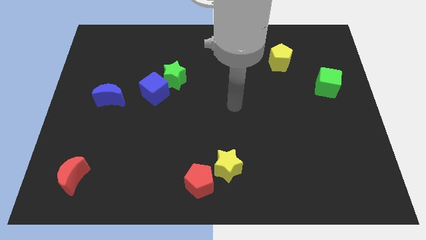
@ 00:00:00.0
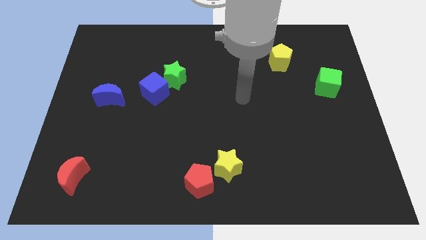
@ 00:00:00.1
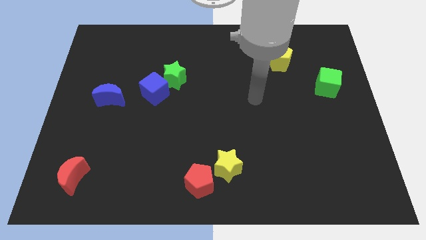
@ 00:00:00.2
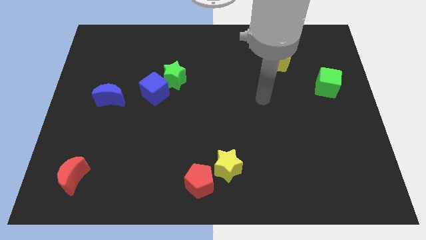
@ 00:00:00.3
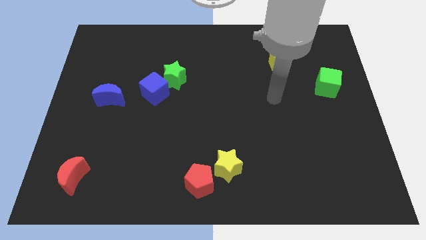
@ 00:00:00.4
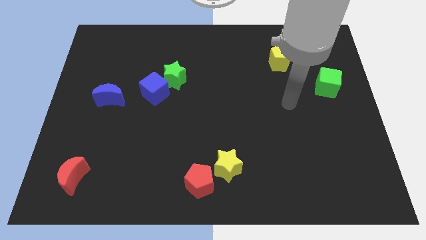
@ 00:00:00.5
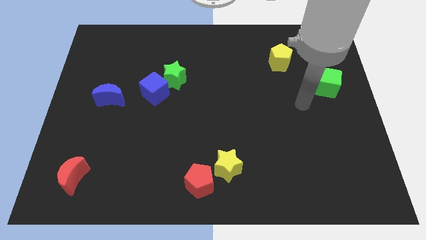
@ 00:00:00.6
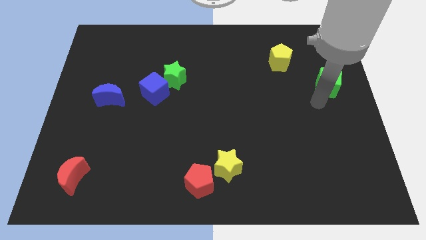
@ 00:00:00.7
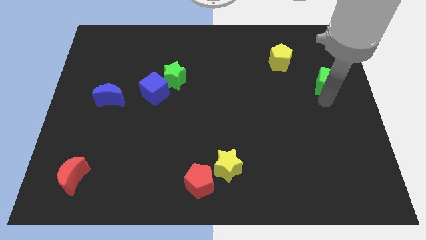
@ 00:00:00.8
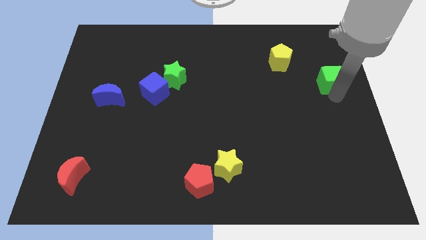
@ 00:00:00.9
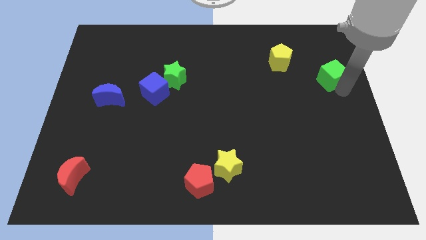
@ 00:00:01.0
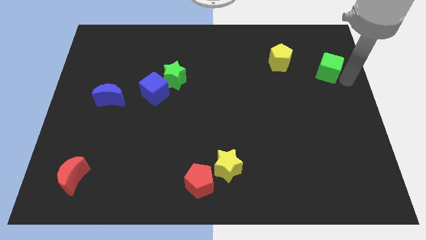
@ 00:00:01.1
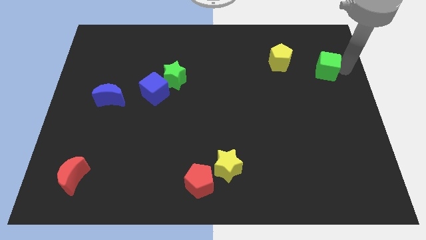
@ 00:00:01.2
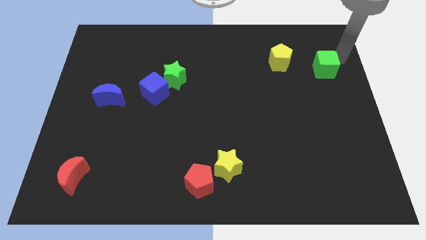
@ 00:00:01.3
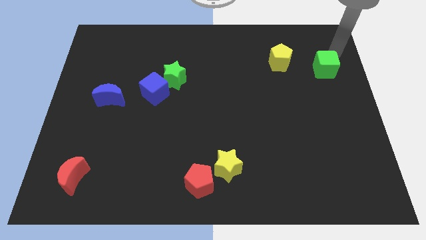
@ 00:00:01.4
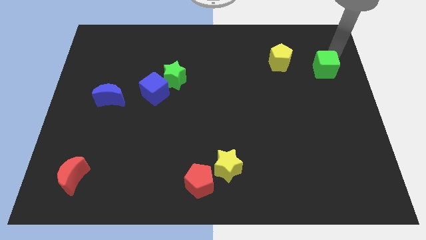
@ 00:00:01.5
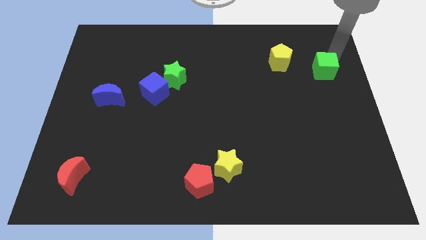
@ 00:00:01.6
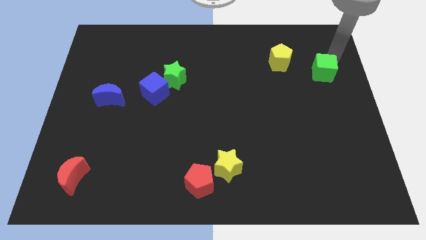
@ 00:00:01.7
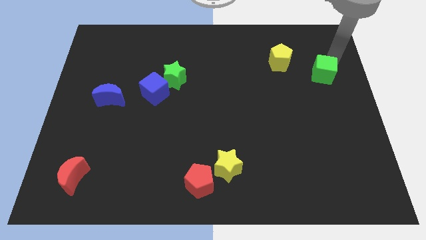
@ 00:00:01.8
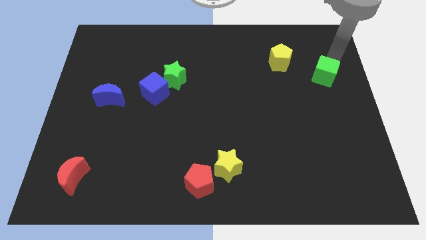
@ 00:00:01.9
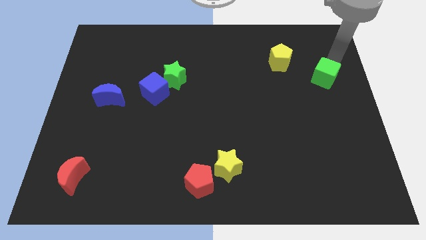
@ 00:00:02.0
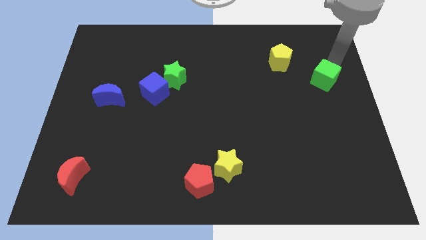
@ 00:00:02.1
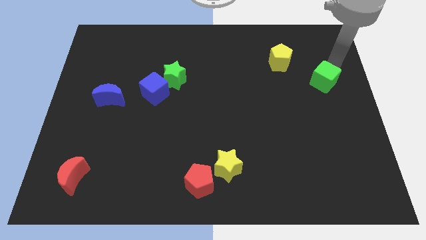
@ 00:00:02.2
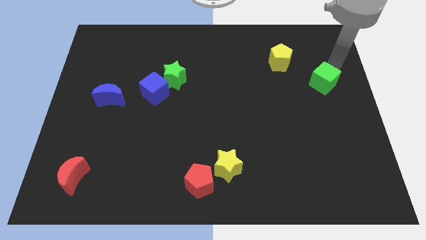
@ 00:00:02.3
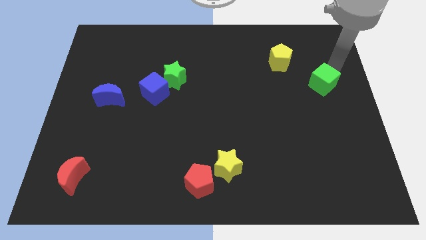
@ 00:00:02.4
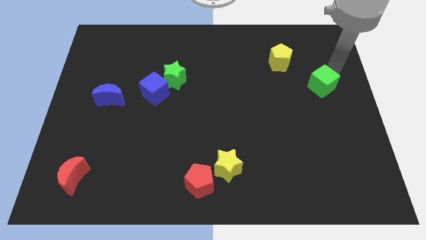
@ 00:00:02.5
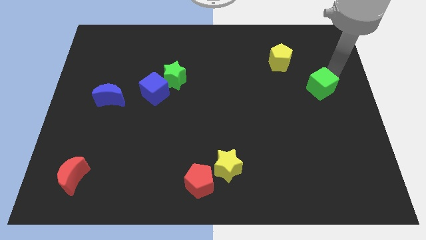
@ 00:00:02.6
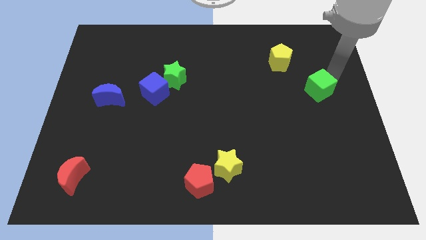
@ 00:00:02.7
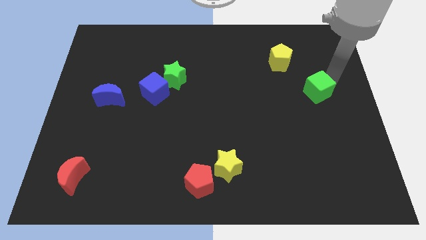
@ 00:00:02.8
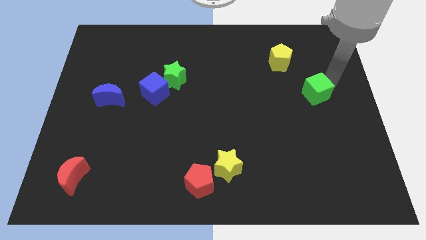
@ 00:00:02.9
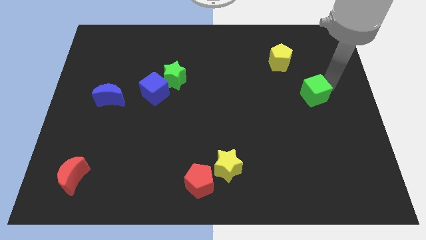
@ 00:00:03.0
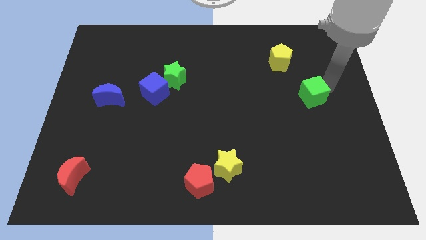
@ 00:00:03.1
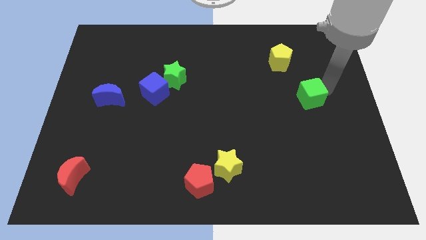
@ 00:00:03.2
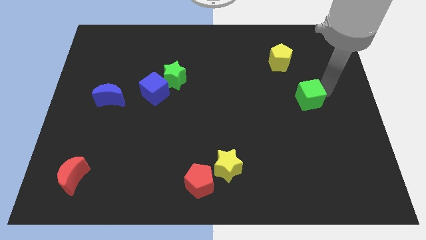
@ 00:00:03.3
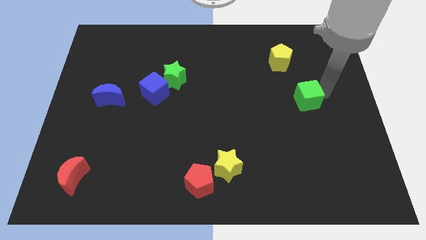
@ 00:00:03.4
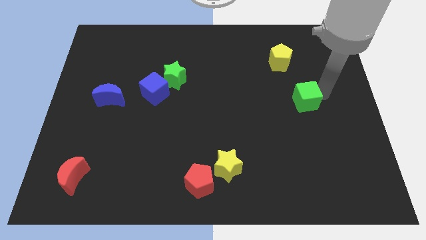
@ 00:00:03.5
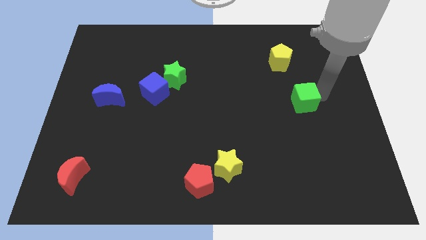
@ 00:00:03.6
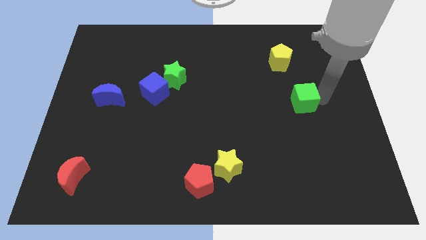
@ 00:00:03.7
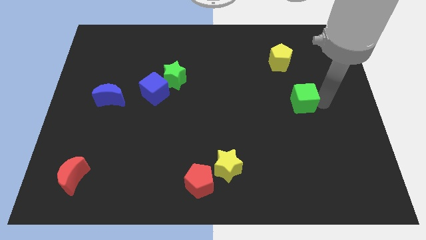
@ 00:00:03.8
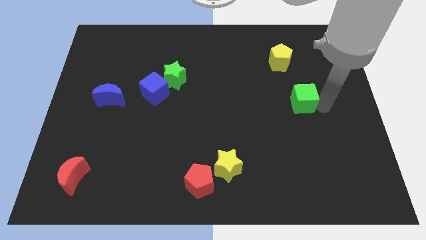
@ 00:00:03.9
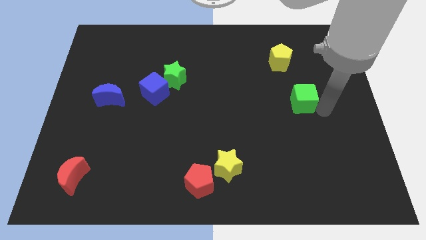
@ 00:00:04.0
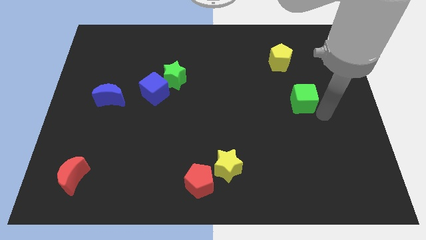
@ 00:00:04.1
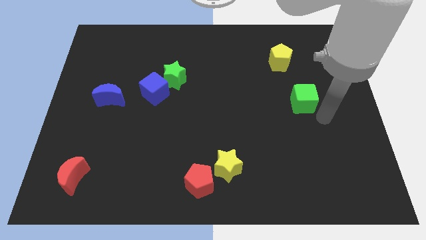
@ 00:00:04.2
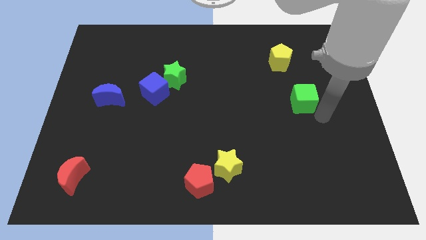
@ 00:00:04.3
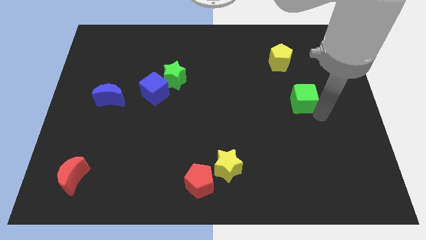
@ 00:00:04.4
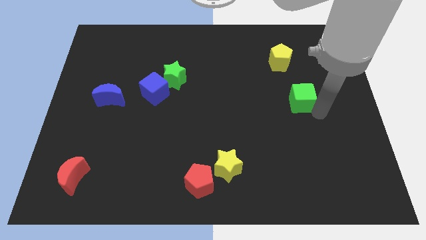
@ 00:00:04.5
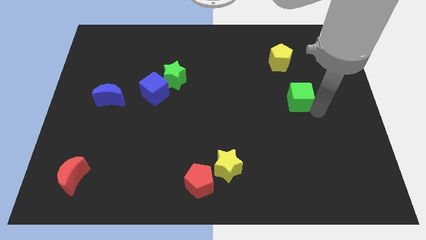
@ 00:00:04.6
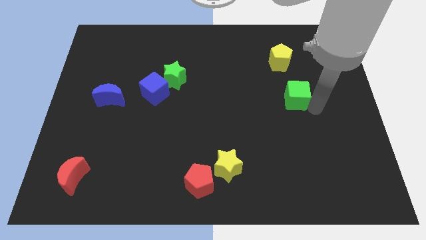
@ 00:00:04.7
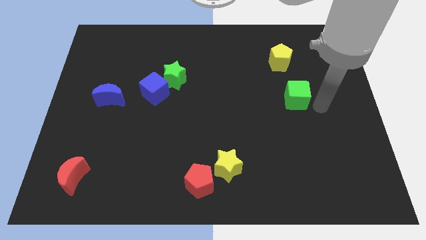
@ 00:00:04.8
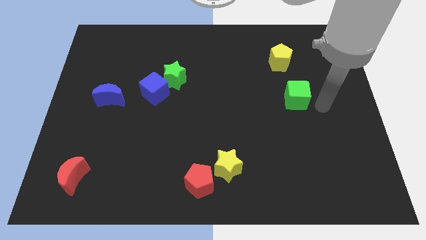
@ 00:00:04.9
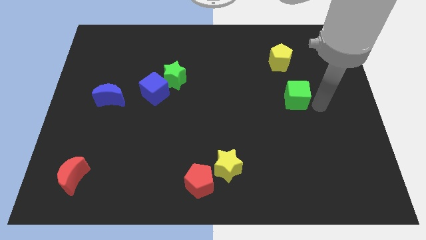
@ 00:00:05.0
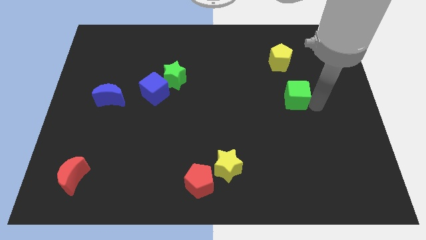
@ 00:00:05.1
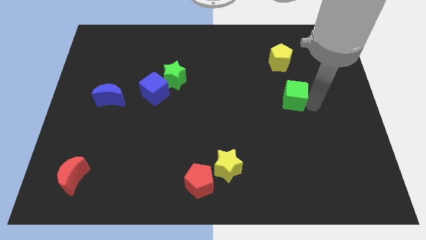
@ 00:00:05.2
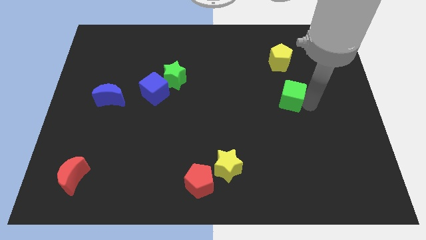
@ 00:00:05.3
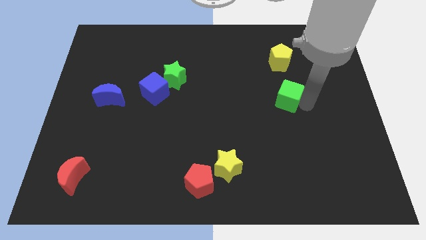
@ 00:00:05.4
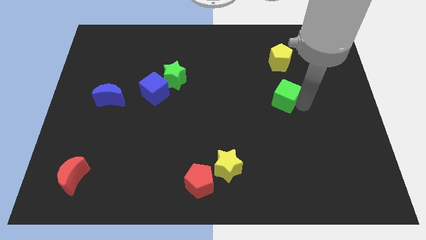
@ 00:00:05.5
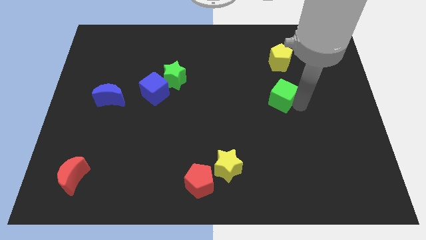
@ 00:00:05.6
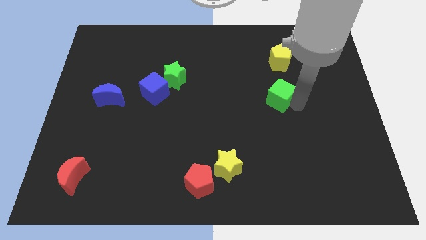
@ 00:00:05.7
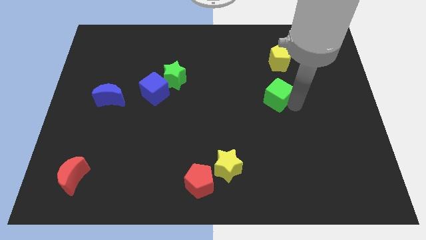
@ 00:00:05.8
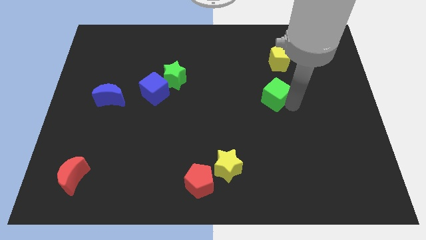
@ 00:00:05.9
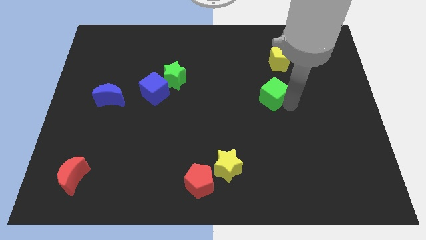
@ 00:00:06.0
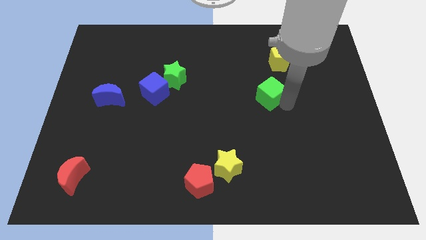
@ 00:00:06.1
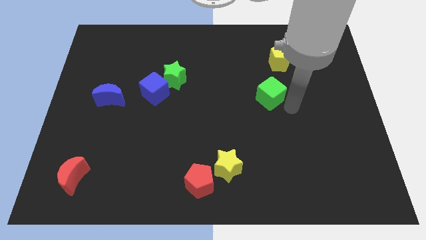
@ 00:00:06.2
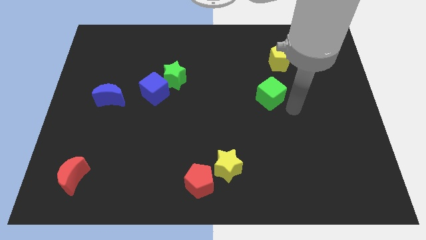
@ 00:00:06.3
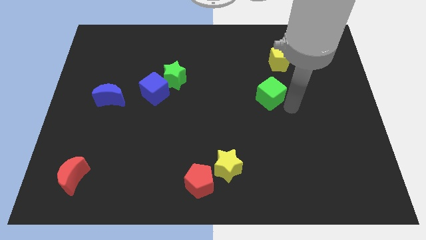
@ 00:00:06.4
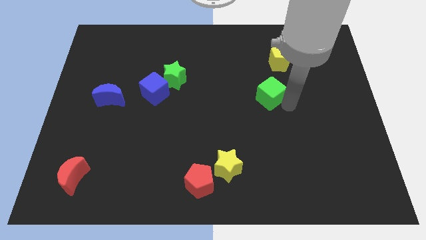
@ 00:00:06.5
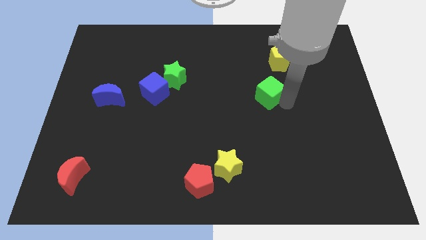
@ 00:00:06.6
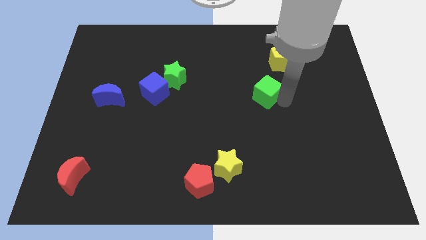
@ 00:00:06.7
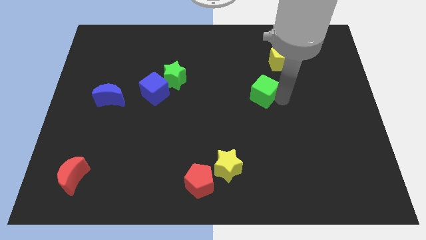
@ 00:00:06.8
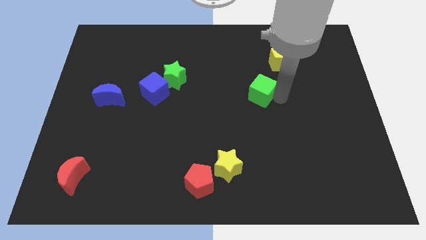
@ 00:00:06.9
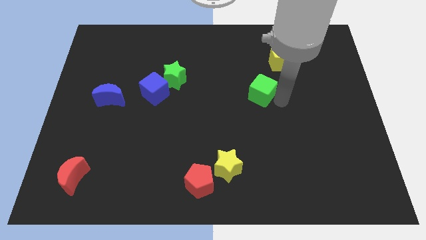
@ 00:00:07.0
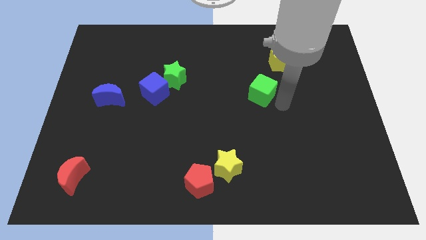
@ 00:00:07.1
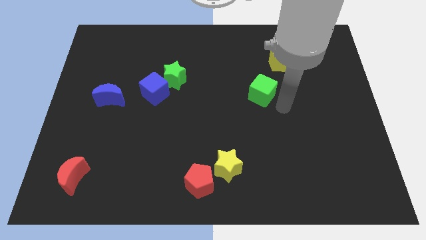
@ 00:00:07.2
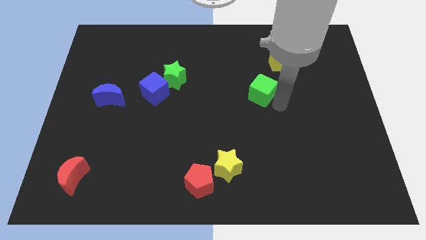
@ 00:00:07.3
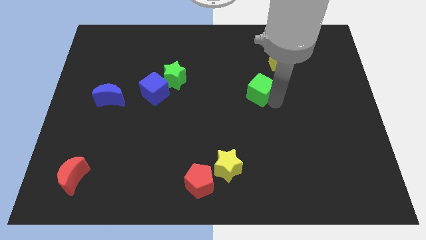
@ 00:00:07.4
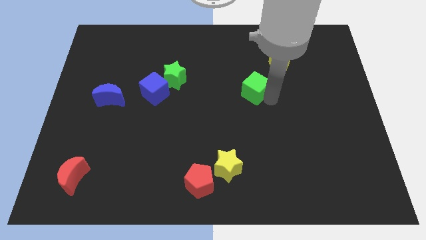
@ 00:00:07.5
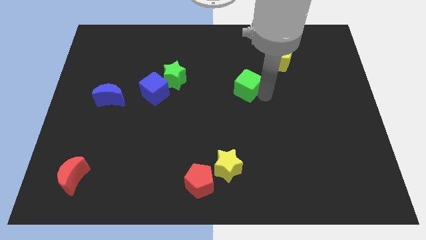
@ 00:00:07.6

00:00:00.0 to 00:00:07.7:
push the green cube left
